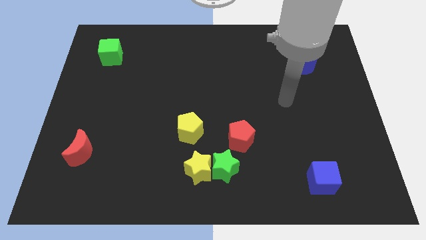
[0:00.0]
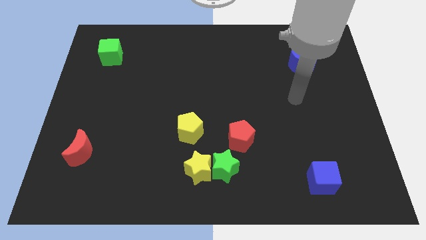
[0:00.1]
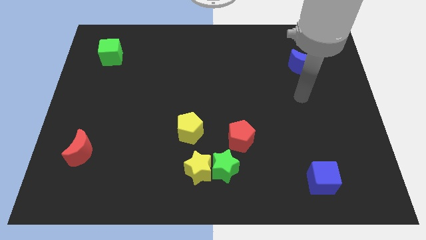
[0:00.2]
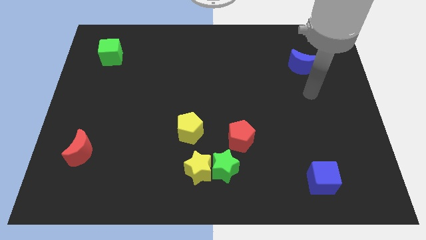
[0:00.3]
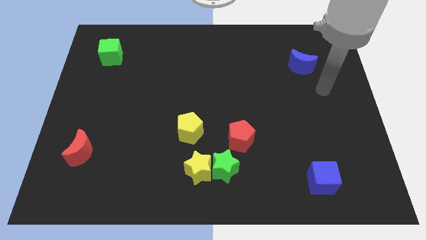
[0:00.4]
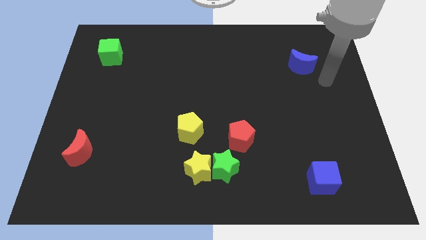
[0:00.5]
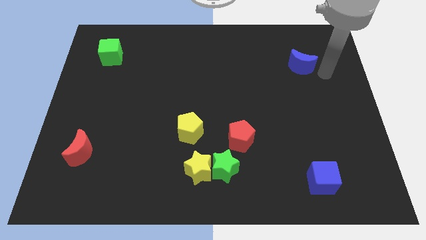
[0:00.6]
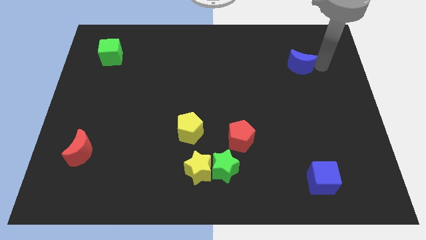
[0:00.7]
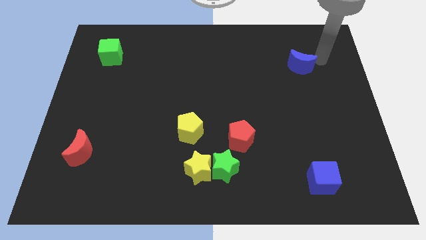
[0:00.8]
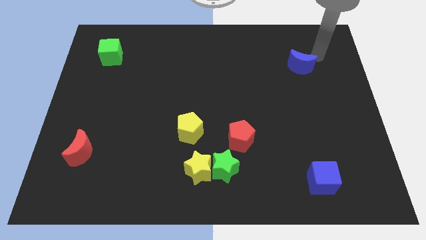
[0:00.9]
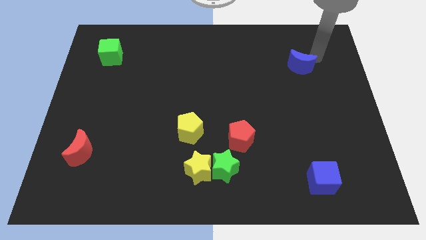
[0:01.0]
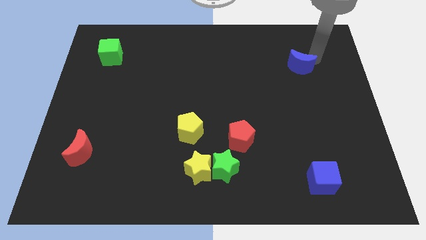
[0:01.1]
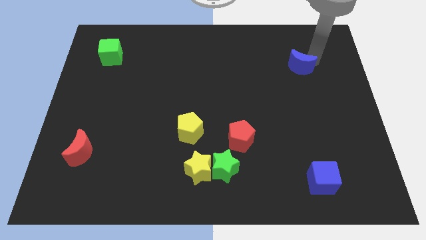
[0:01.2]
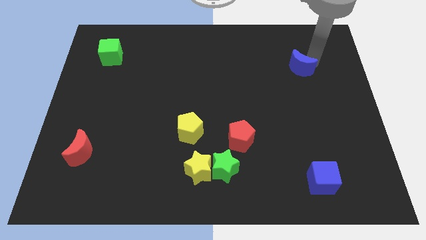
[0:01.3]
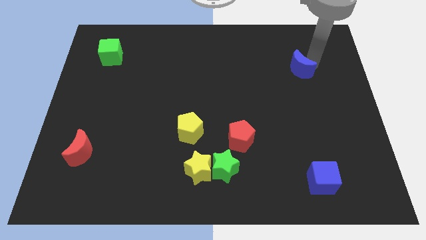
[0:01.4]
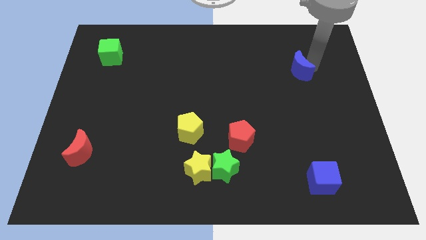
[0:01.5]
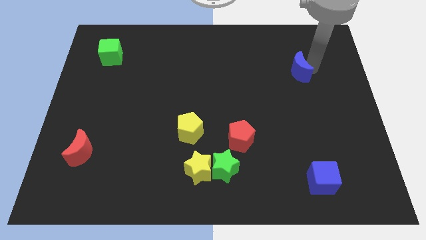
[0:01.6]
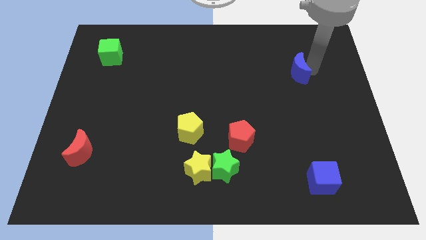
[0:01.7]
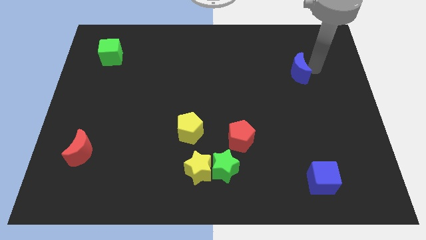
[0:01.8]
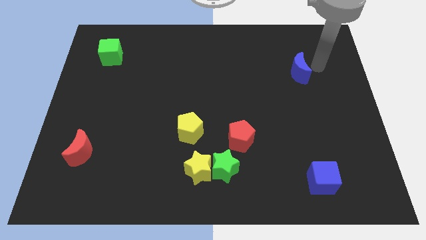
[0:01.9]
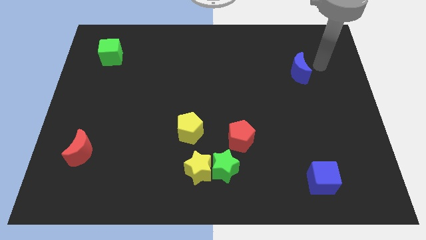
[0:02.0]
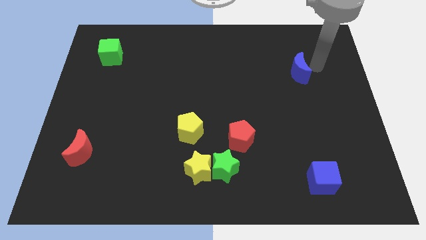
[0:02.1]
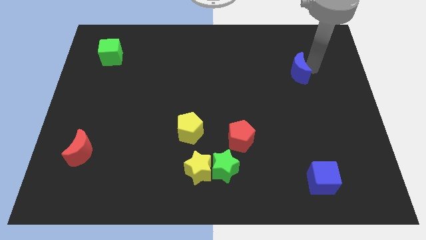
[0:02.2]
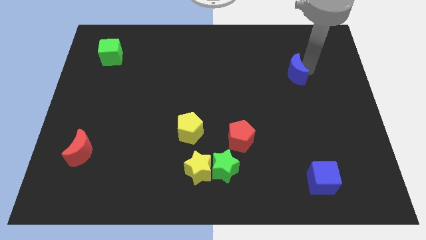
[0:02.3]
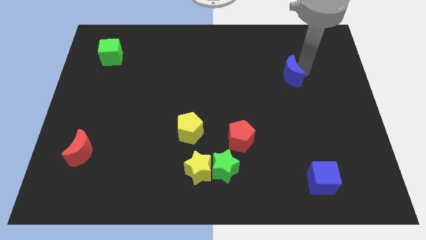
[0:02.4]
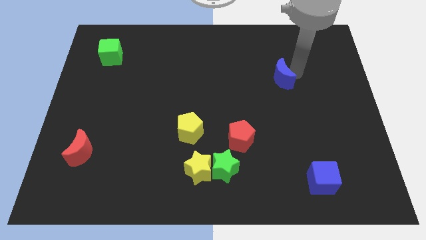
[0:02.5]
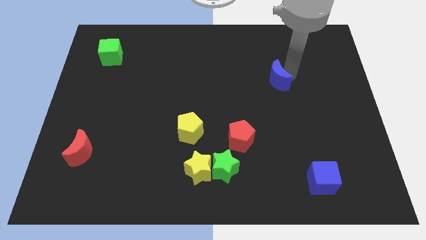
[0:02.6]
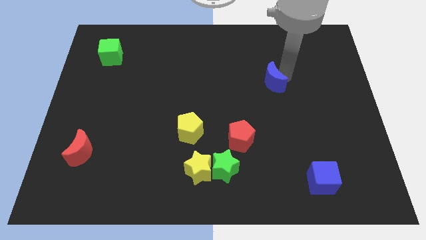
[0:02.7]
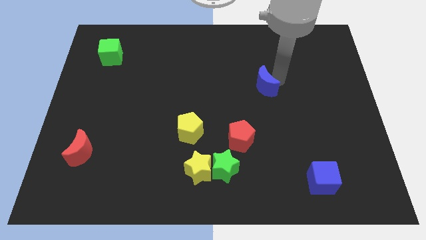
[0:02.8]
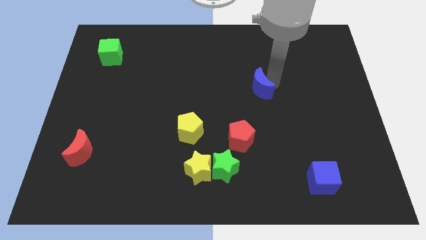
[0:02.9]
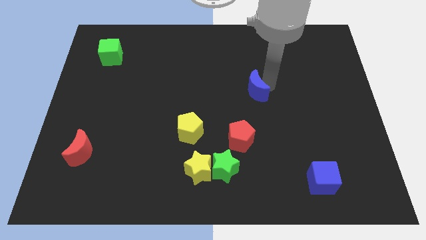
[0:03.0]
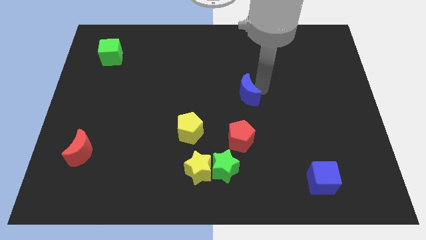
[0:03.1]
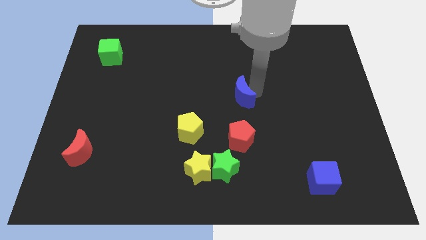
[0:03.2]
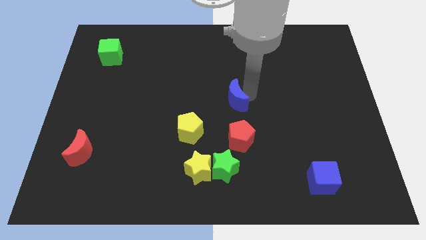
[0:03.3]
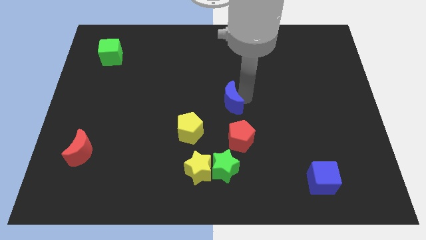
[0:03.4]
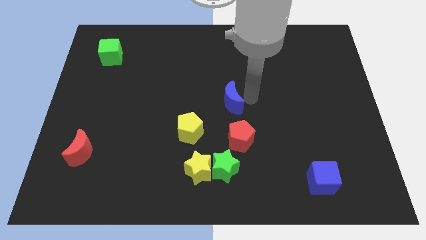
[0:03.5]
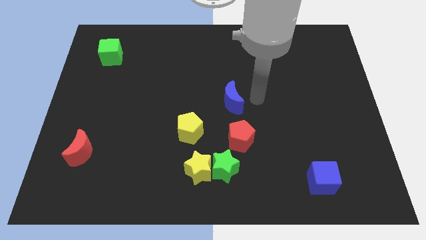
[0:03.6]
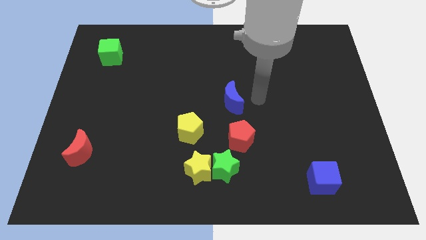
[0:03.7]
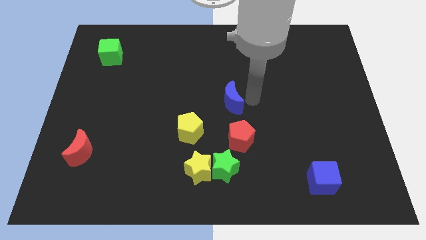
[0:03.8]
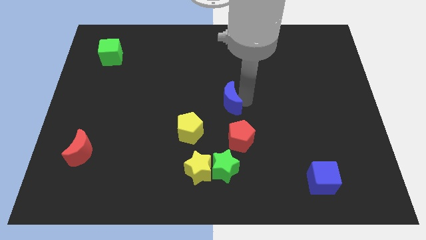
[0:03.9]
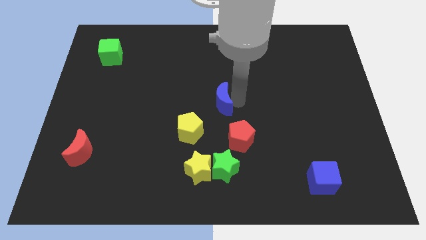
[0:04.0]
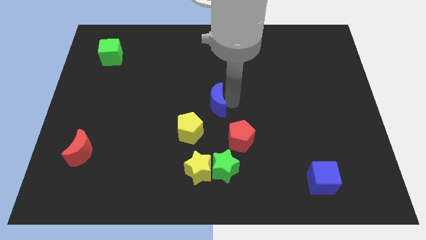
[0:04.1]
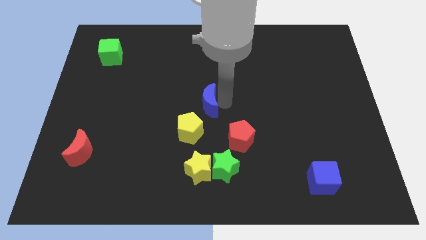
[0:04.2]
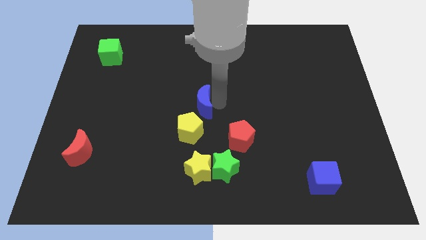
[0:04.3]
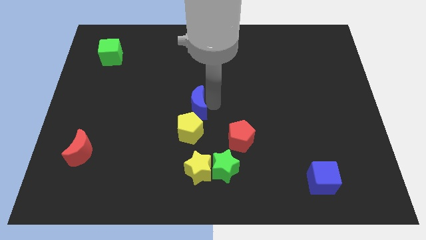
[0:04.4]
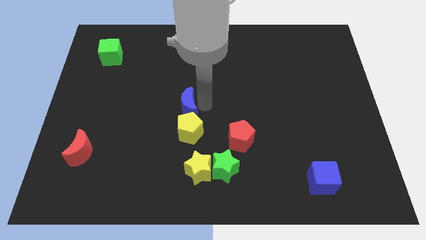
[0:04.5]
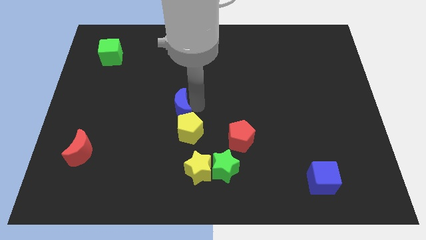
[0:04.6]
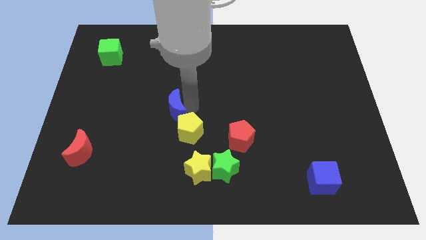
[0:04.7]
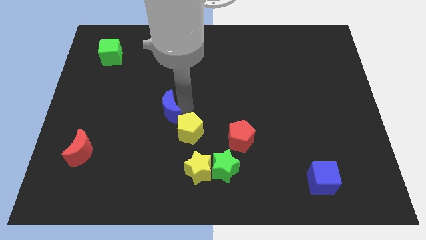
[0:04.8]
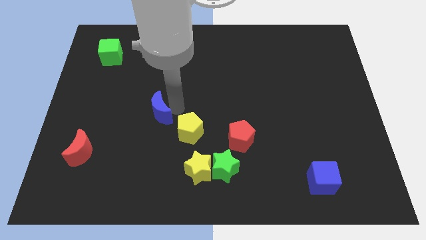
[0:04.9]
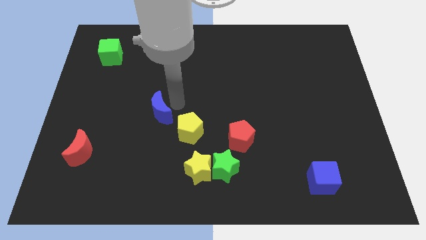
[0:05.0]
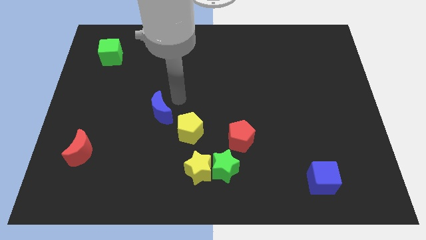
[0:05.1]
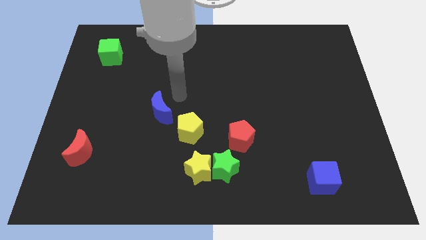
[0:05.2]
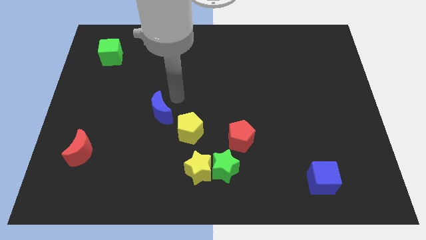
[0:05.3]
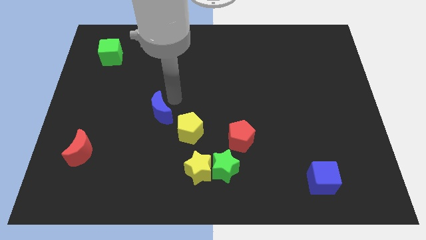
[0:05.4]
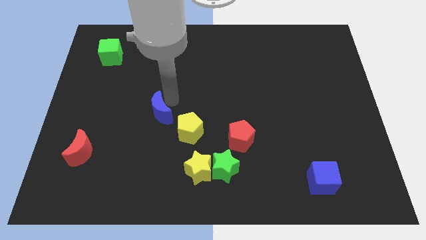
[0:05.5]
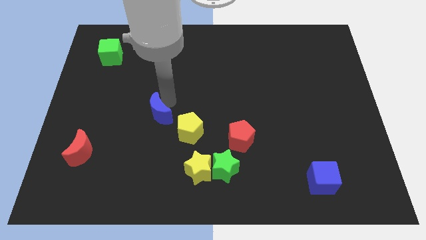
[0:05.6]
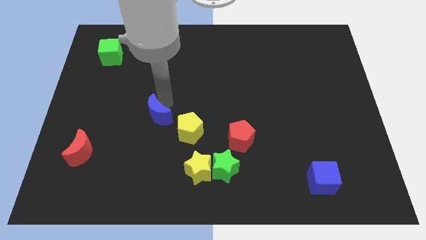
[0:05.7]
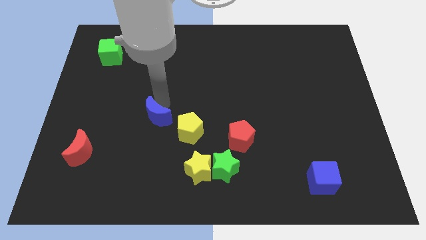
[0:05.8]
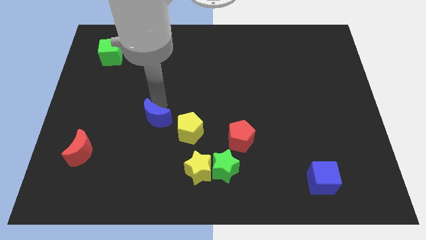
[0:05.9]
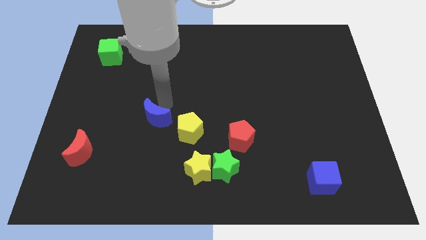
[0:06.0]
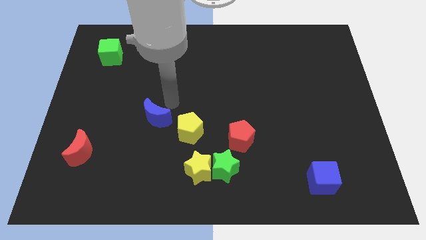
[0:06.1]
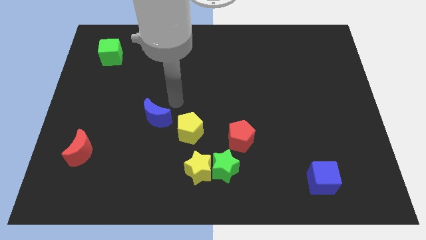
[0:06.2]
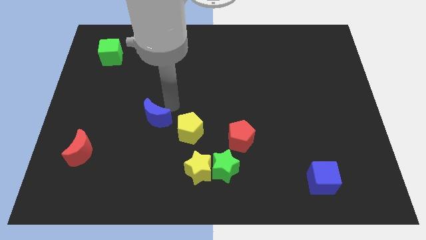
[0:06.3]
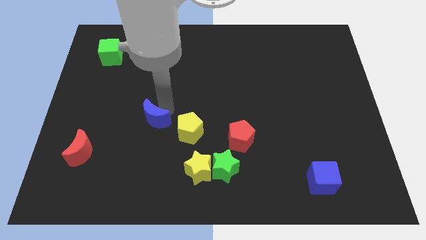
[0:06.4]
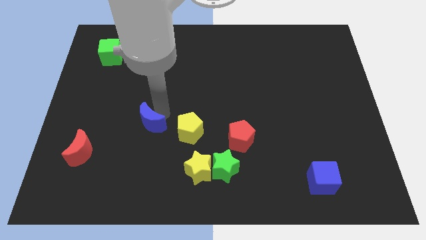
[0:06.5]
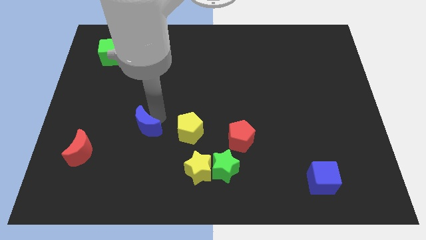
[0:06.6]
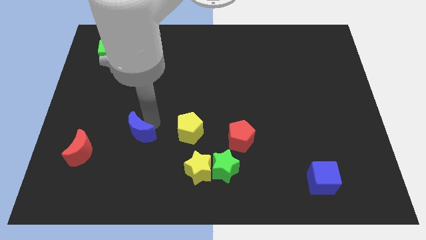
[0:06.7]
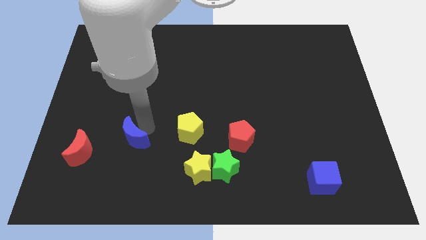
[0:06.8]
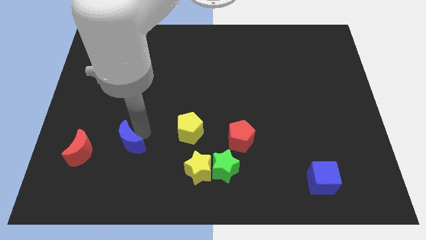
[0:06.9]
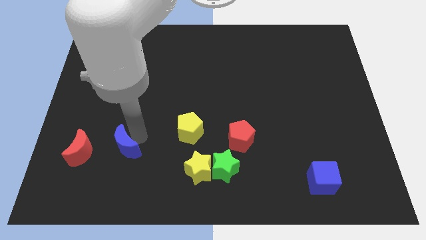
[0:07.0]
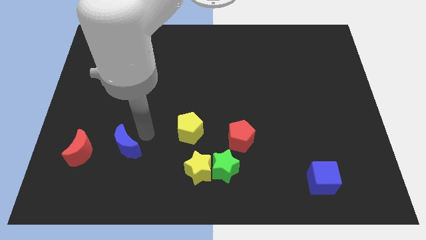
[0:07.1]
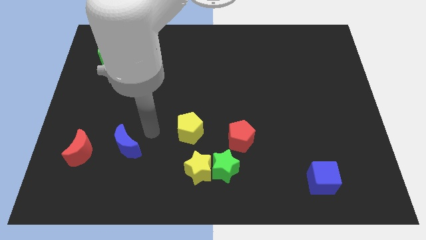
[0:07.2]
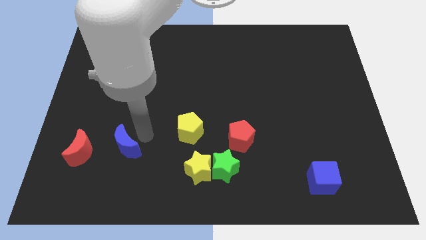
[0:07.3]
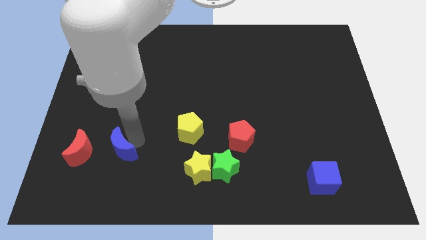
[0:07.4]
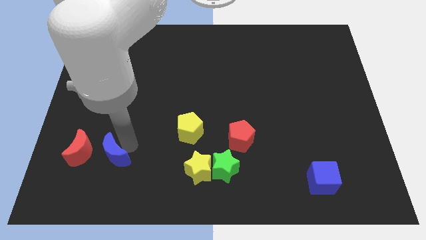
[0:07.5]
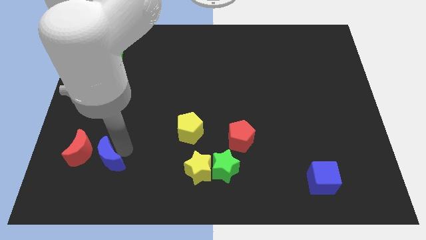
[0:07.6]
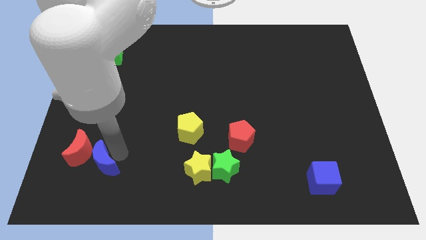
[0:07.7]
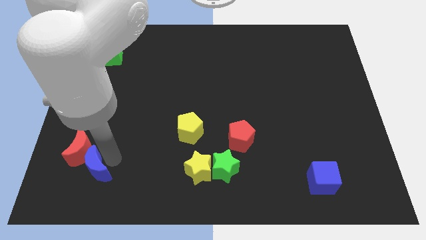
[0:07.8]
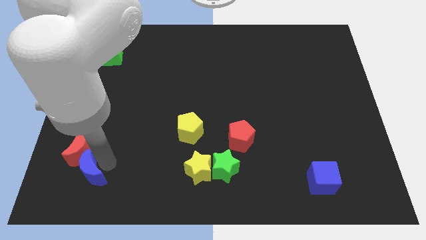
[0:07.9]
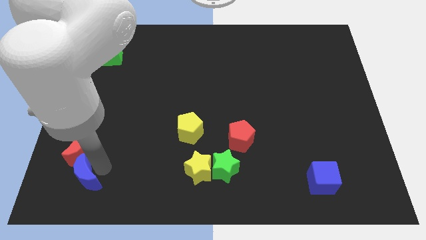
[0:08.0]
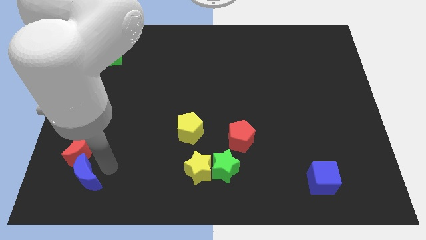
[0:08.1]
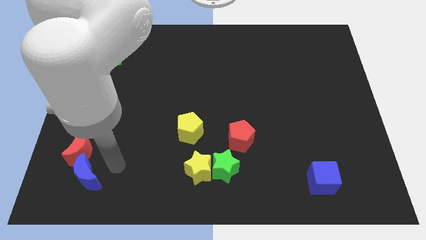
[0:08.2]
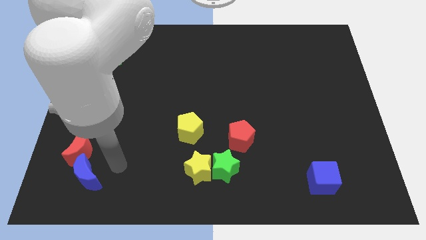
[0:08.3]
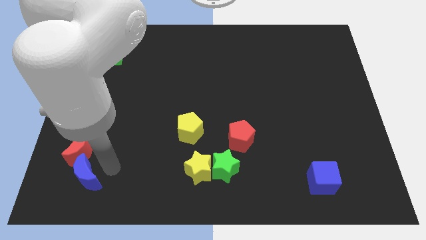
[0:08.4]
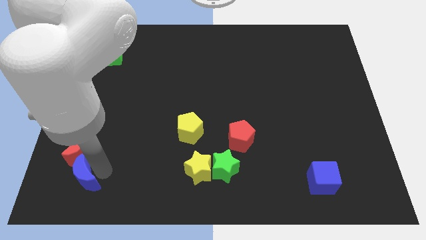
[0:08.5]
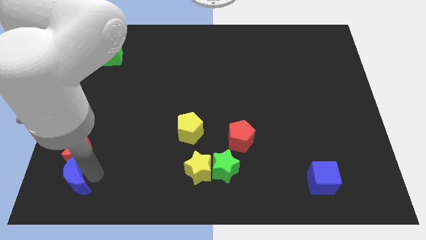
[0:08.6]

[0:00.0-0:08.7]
put the blue moon to the lower left corner
